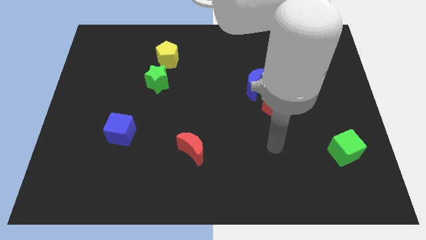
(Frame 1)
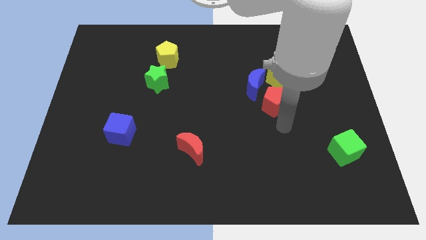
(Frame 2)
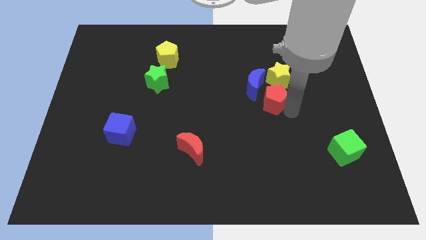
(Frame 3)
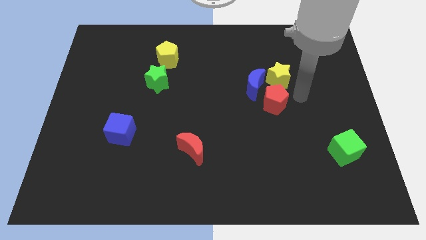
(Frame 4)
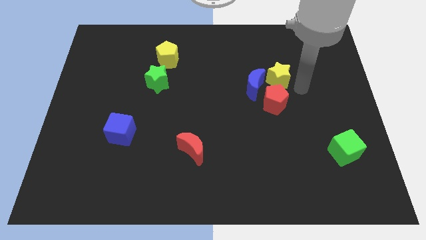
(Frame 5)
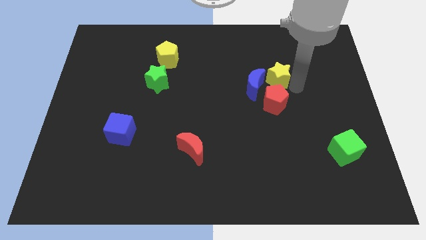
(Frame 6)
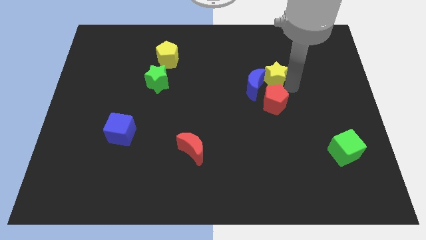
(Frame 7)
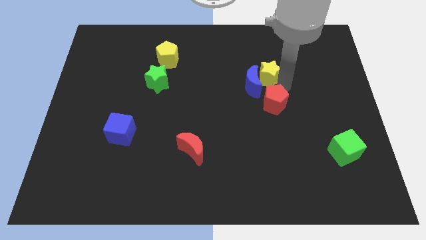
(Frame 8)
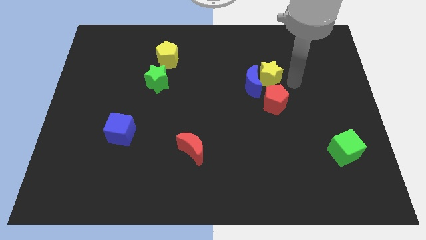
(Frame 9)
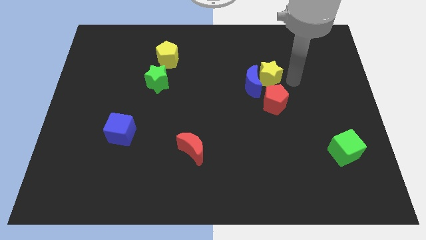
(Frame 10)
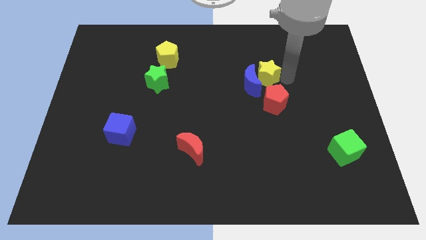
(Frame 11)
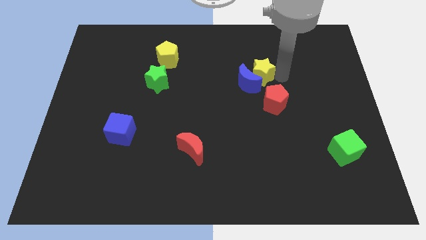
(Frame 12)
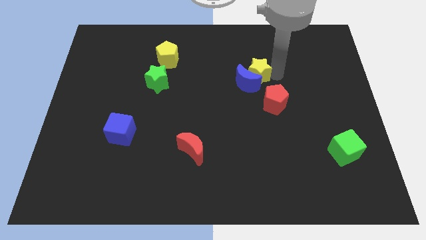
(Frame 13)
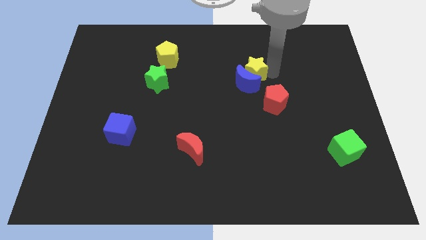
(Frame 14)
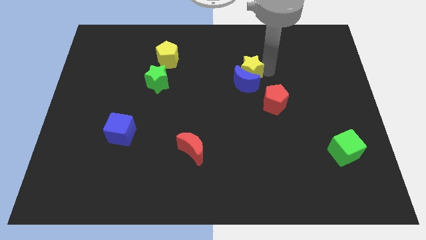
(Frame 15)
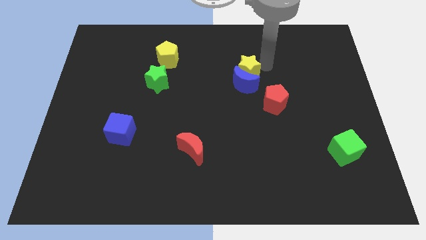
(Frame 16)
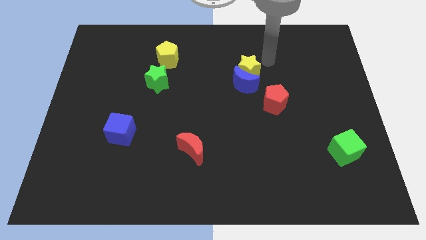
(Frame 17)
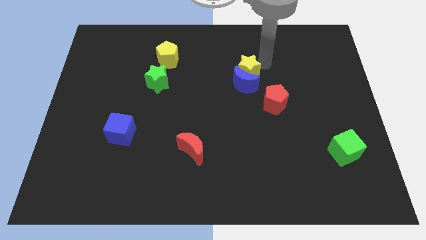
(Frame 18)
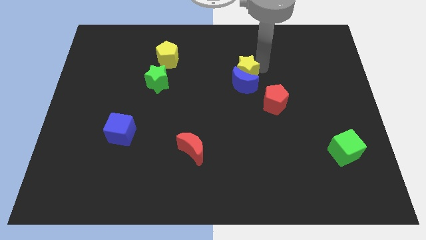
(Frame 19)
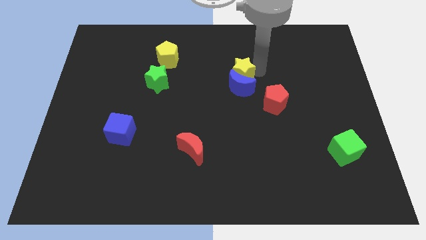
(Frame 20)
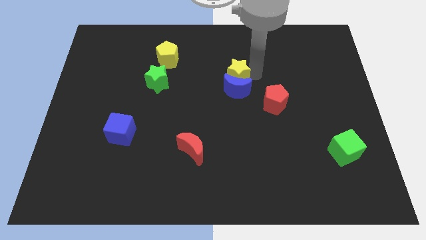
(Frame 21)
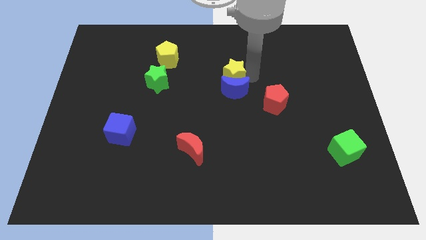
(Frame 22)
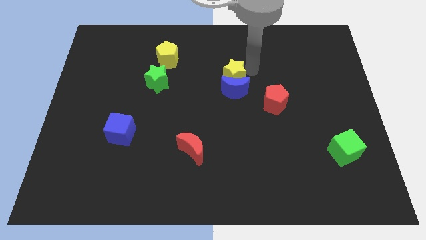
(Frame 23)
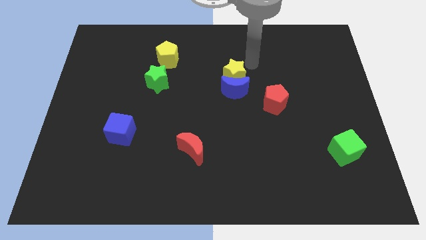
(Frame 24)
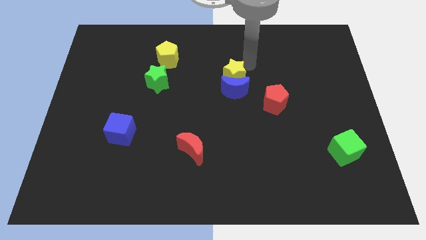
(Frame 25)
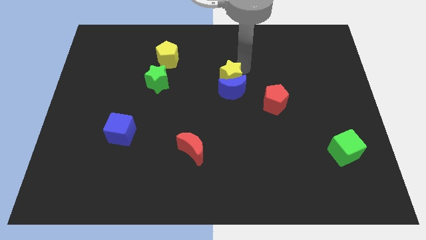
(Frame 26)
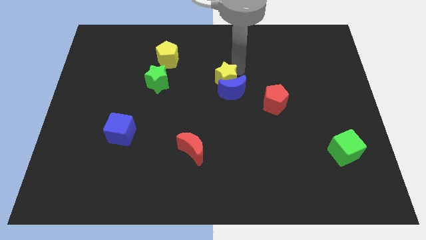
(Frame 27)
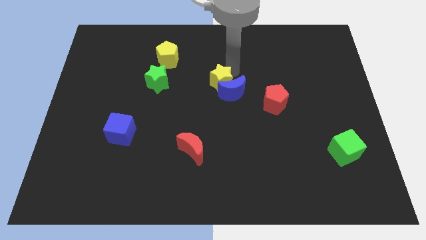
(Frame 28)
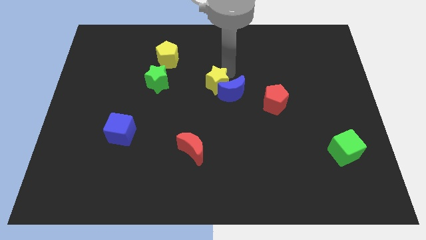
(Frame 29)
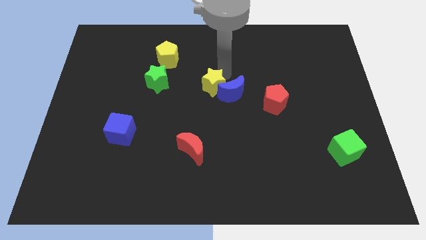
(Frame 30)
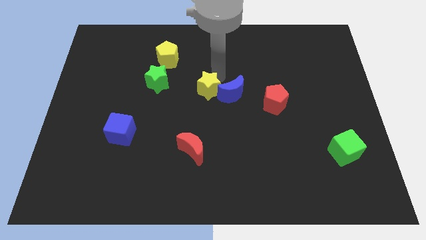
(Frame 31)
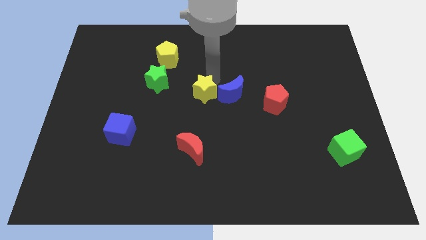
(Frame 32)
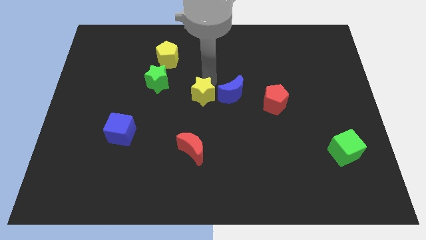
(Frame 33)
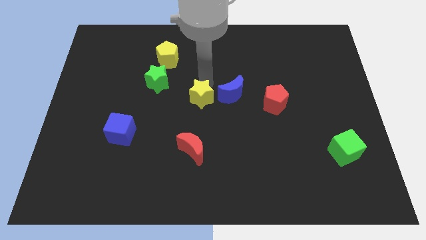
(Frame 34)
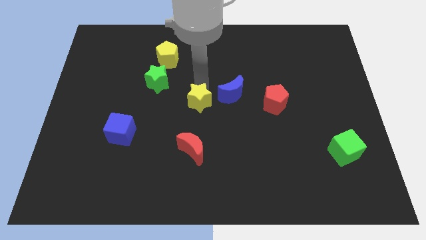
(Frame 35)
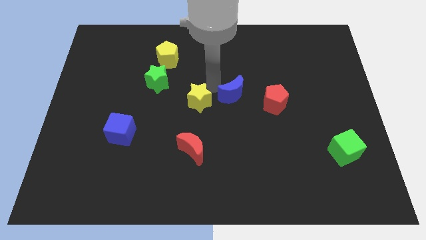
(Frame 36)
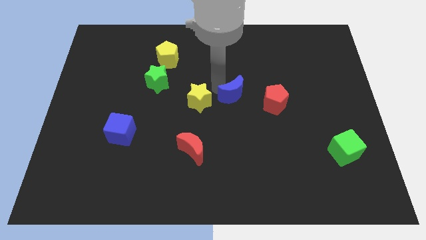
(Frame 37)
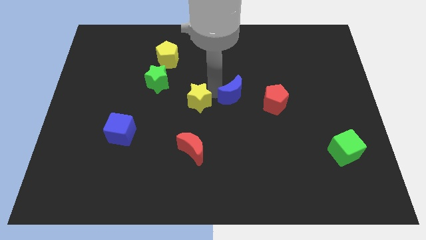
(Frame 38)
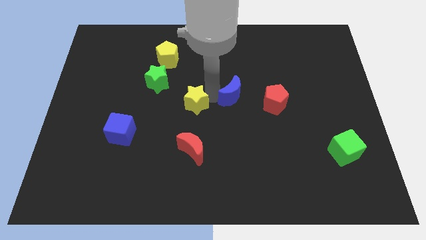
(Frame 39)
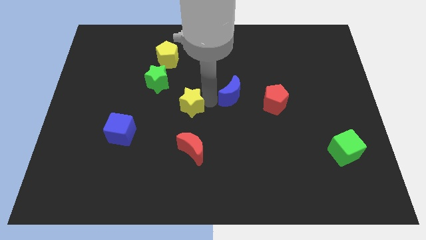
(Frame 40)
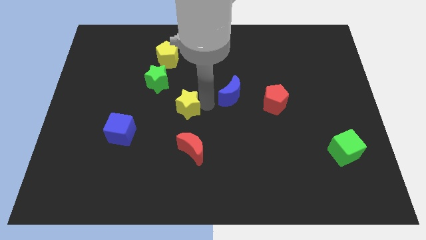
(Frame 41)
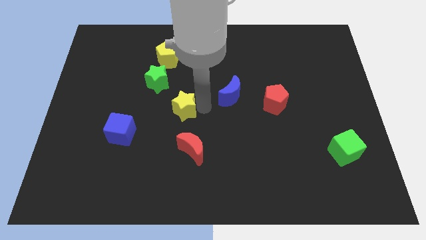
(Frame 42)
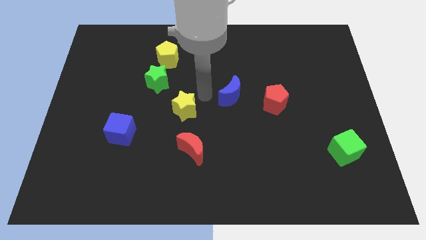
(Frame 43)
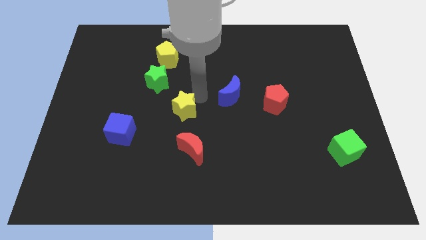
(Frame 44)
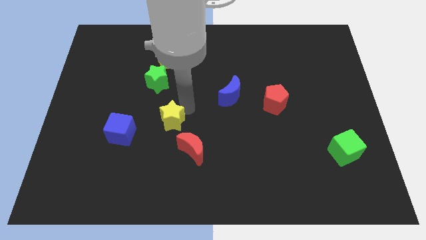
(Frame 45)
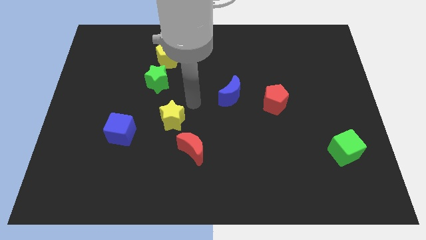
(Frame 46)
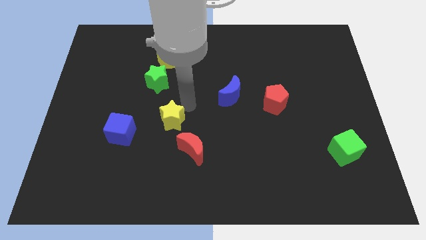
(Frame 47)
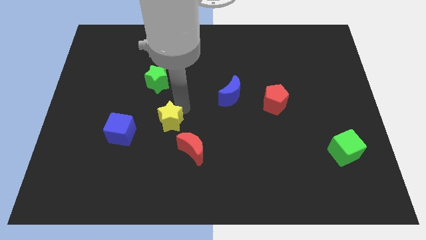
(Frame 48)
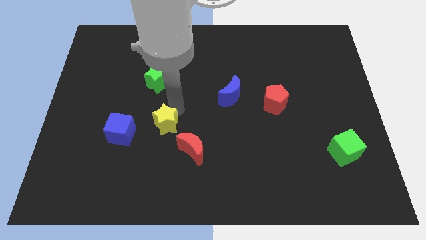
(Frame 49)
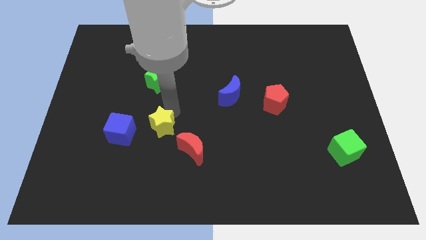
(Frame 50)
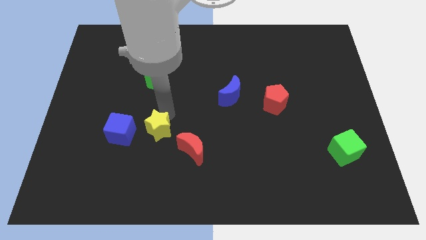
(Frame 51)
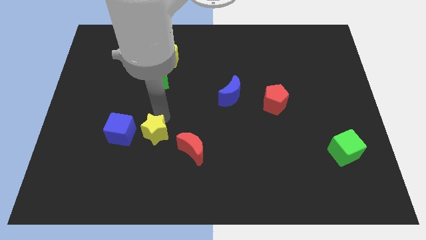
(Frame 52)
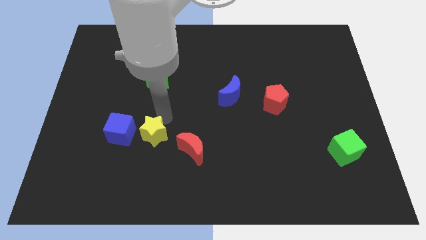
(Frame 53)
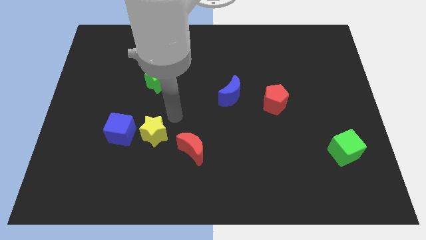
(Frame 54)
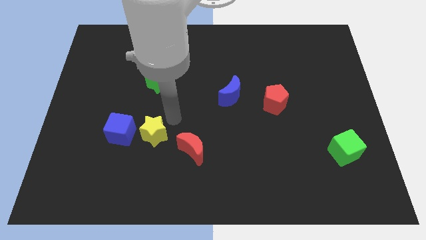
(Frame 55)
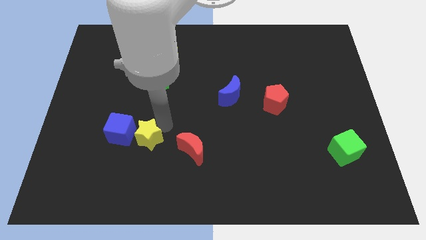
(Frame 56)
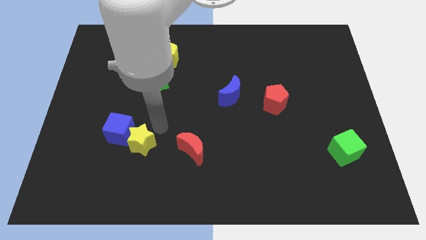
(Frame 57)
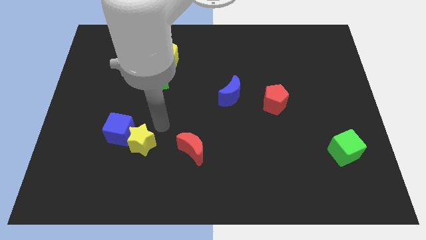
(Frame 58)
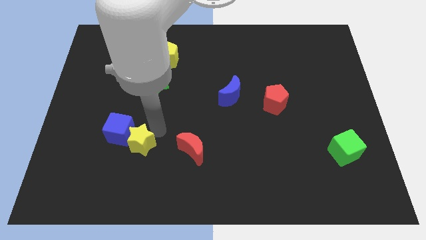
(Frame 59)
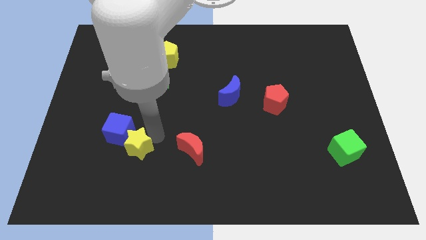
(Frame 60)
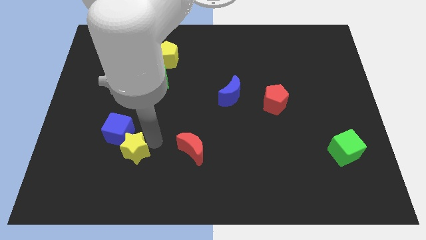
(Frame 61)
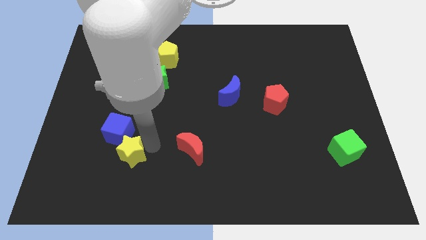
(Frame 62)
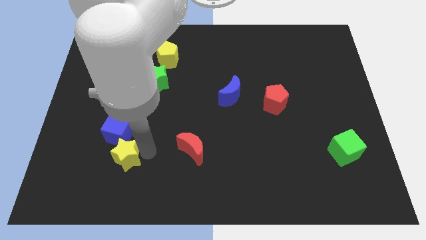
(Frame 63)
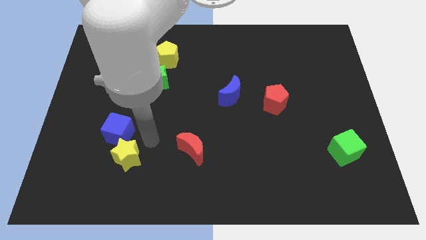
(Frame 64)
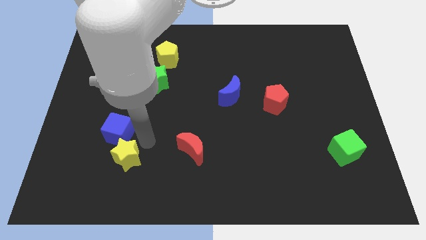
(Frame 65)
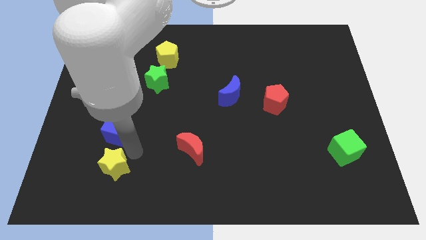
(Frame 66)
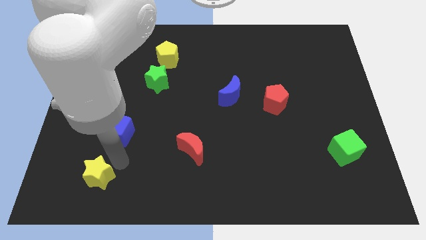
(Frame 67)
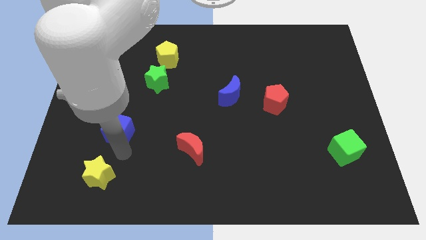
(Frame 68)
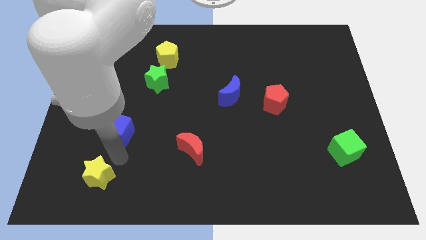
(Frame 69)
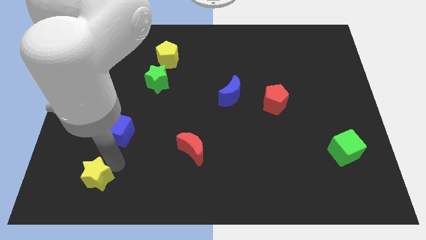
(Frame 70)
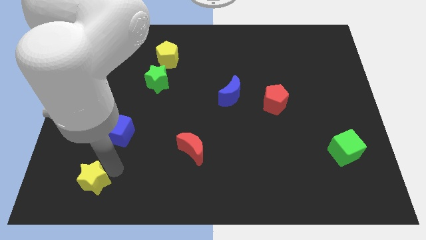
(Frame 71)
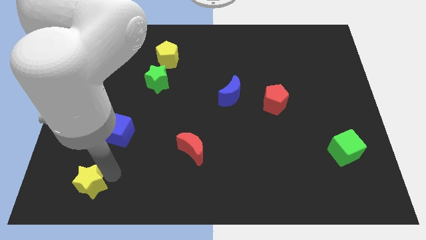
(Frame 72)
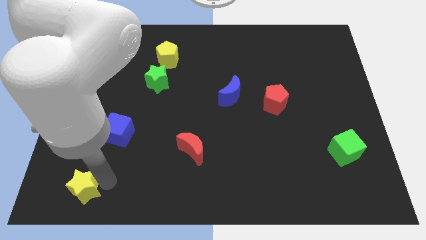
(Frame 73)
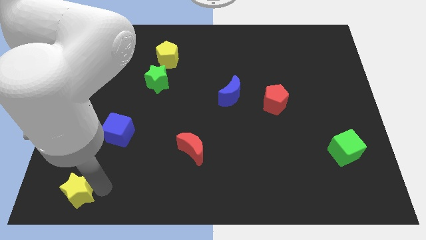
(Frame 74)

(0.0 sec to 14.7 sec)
push the yellow star to the lower left corner
